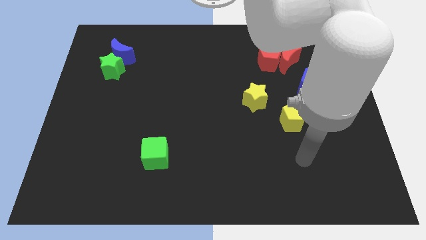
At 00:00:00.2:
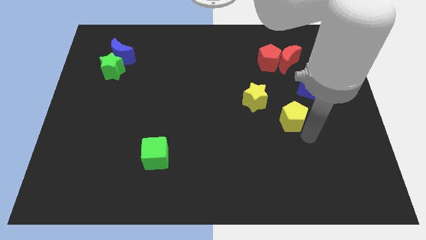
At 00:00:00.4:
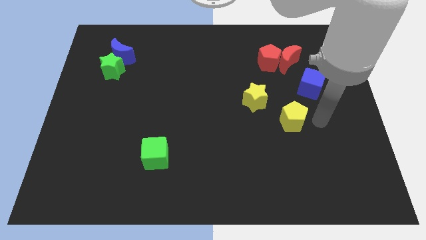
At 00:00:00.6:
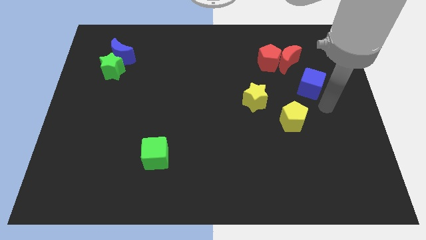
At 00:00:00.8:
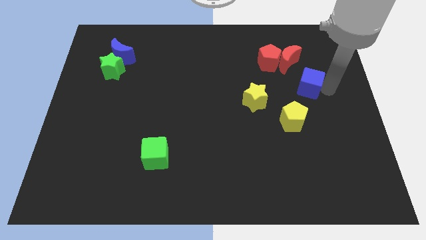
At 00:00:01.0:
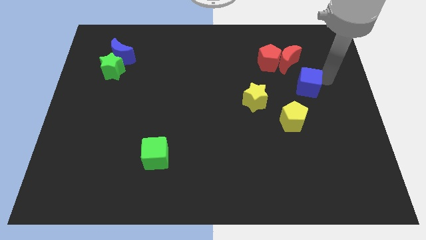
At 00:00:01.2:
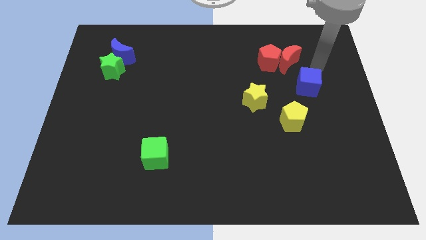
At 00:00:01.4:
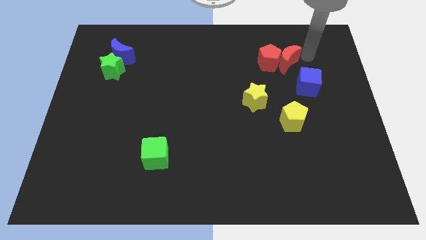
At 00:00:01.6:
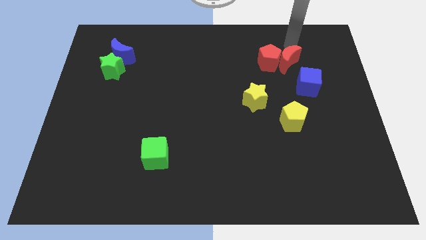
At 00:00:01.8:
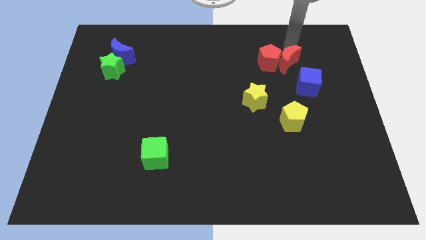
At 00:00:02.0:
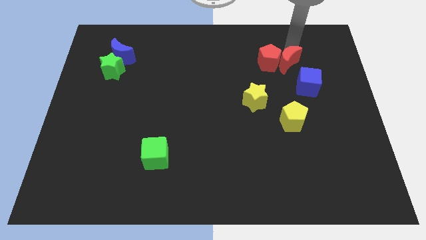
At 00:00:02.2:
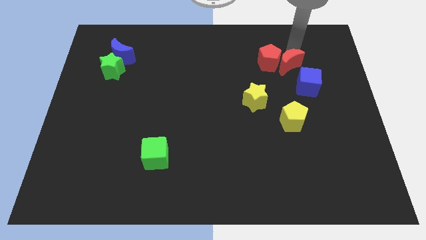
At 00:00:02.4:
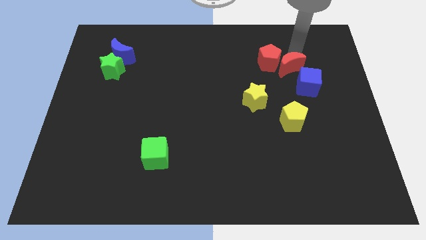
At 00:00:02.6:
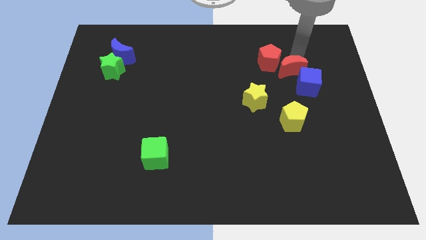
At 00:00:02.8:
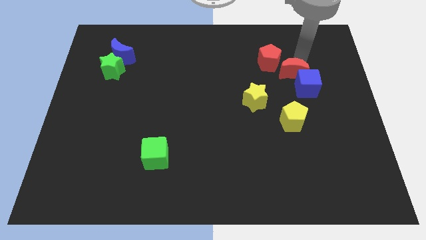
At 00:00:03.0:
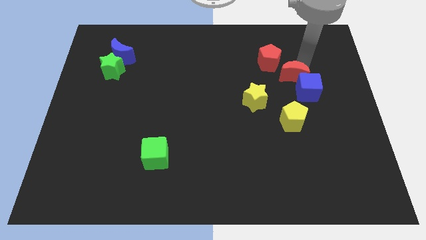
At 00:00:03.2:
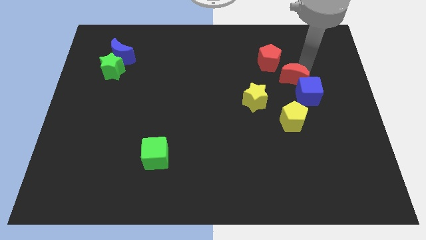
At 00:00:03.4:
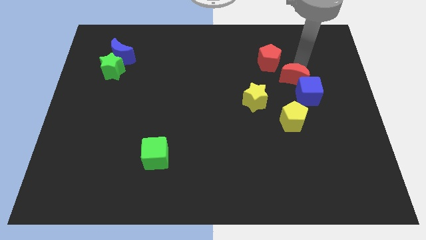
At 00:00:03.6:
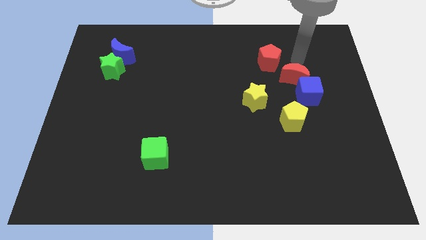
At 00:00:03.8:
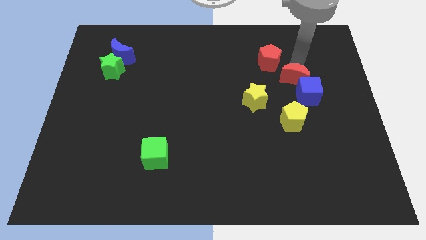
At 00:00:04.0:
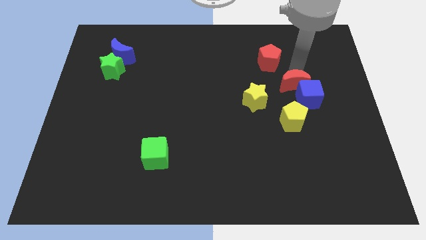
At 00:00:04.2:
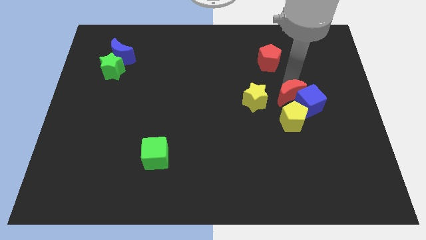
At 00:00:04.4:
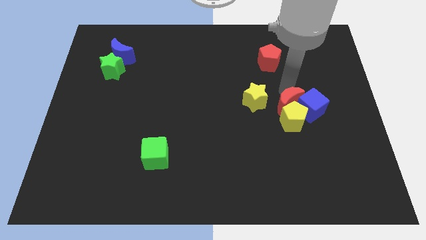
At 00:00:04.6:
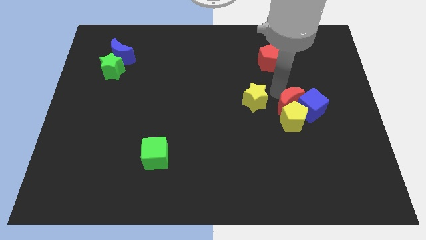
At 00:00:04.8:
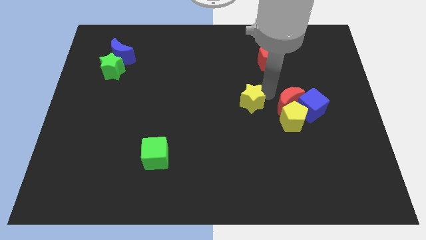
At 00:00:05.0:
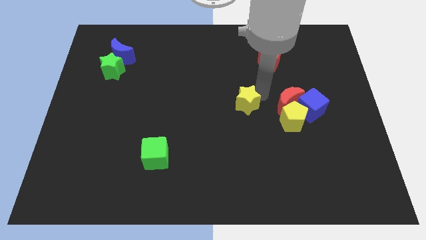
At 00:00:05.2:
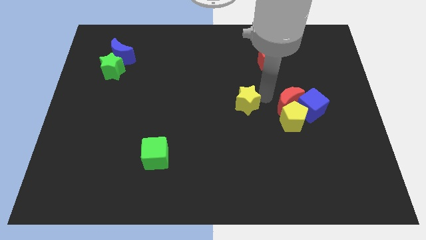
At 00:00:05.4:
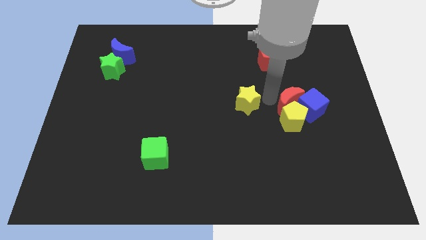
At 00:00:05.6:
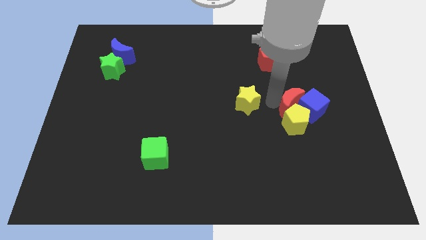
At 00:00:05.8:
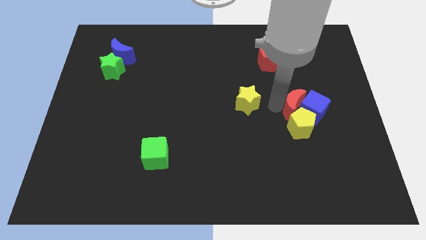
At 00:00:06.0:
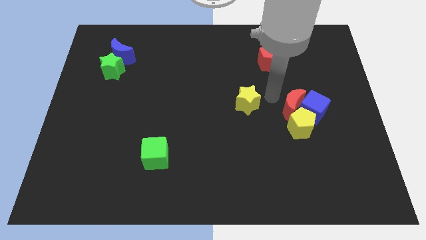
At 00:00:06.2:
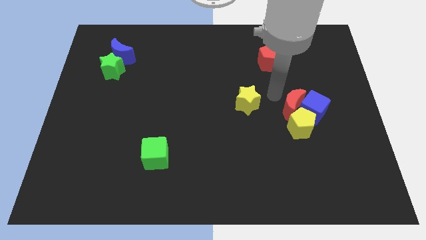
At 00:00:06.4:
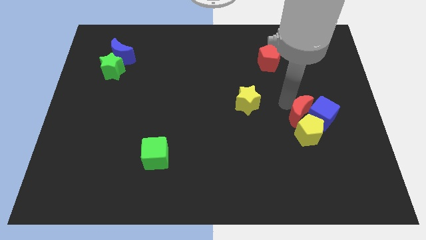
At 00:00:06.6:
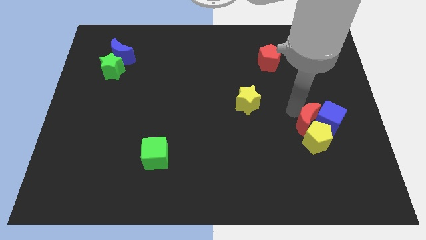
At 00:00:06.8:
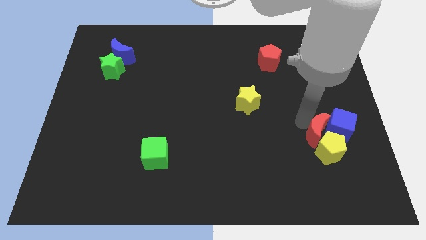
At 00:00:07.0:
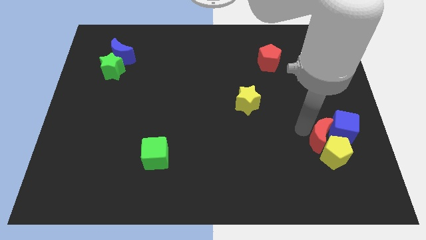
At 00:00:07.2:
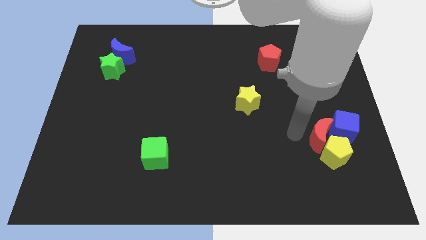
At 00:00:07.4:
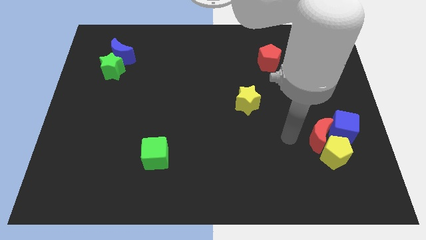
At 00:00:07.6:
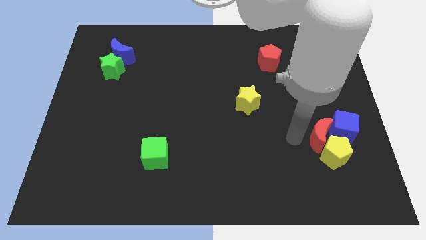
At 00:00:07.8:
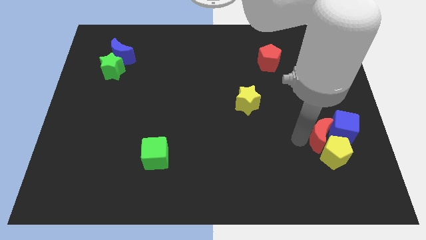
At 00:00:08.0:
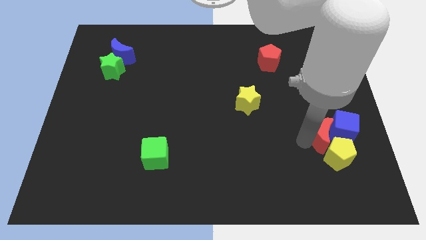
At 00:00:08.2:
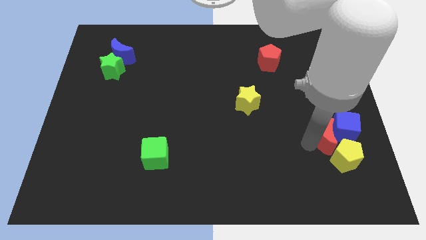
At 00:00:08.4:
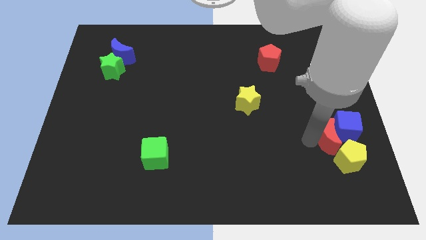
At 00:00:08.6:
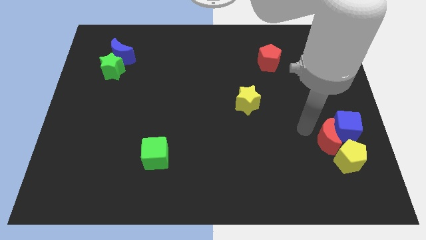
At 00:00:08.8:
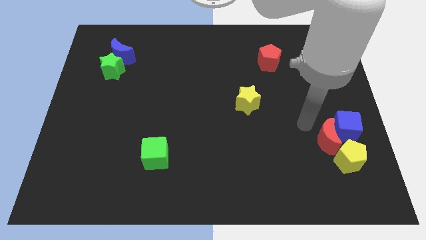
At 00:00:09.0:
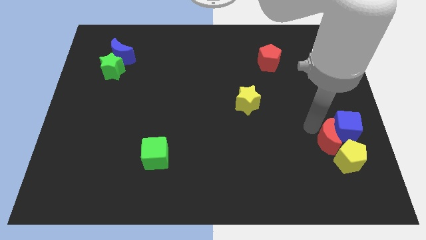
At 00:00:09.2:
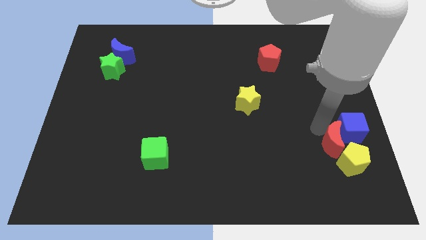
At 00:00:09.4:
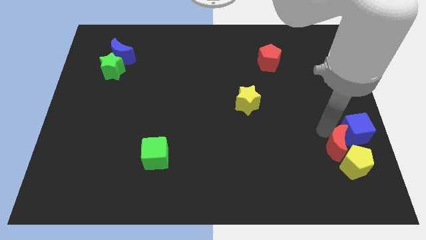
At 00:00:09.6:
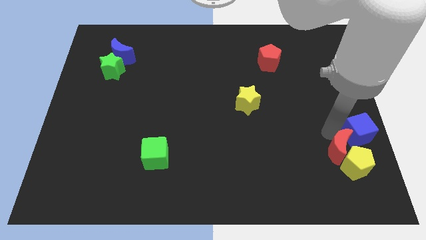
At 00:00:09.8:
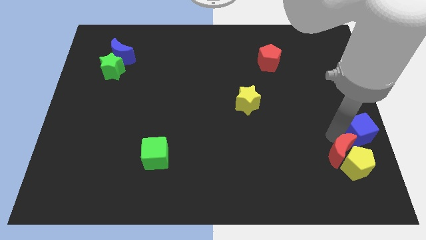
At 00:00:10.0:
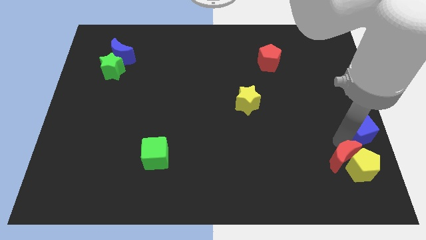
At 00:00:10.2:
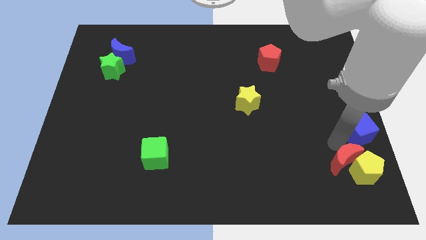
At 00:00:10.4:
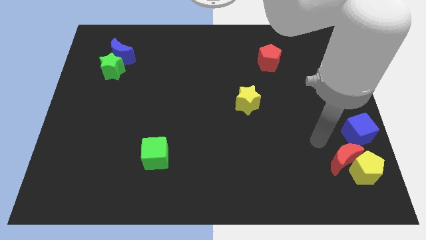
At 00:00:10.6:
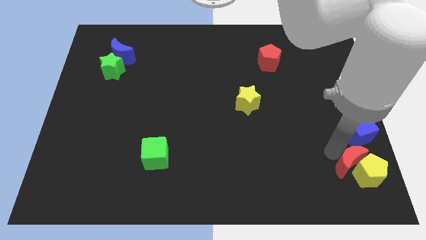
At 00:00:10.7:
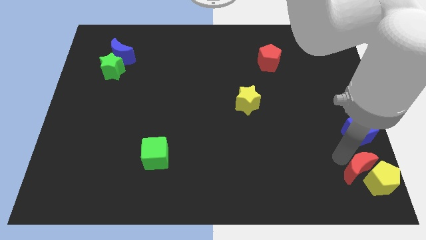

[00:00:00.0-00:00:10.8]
push the red moon to the bottom right corner
